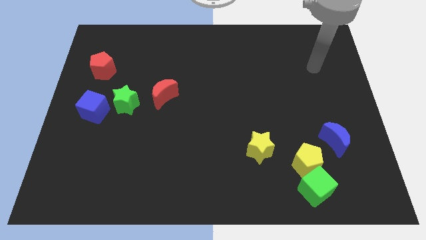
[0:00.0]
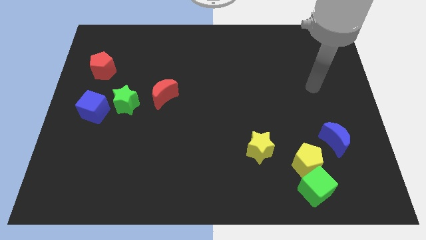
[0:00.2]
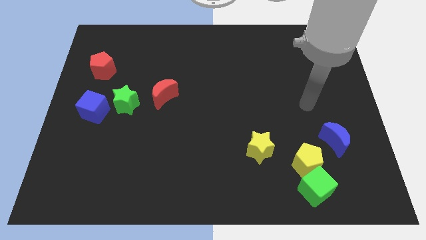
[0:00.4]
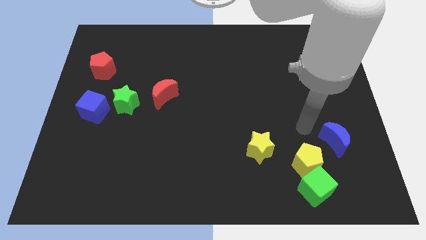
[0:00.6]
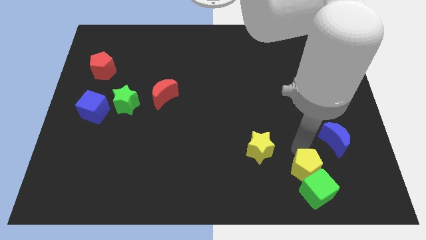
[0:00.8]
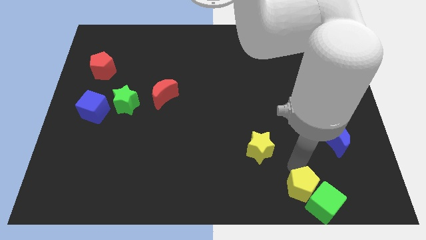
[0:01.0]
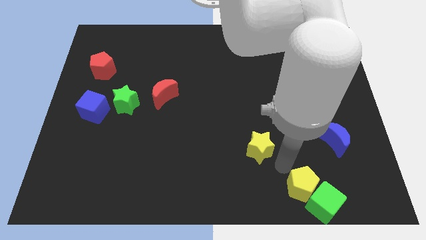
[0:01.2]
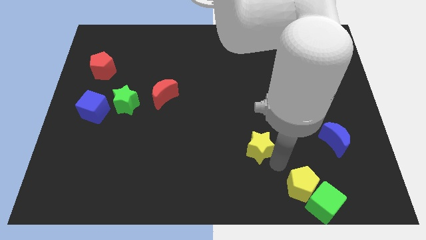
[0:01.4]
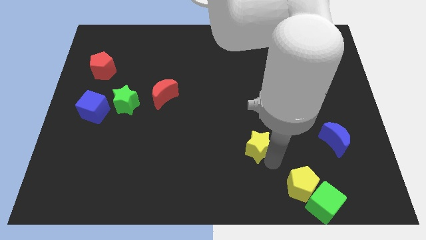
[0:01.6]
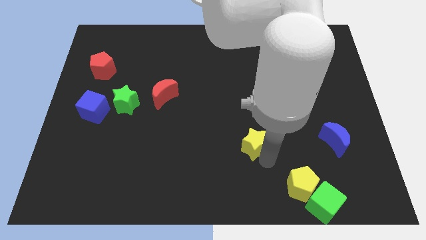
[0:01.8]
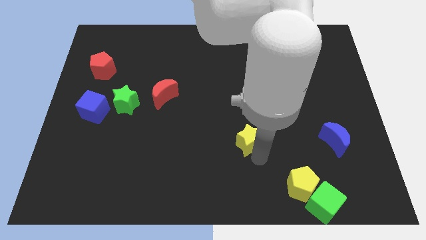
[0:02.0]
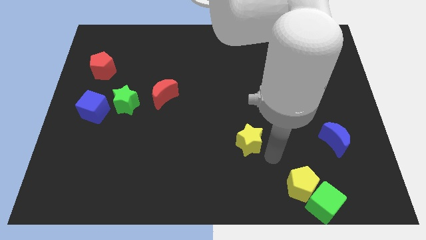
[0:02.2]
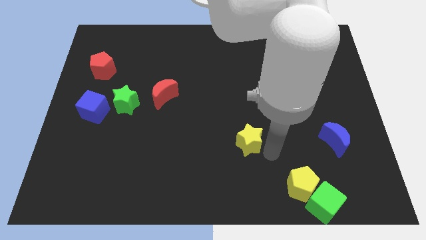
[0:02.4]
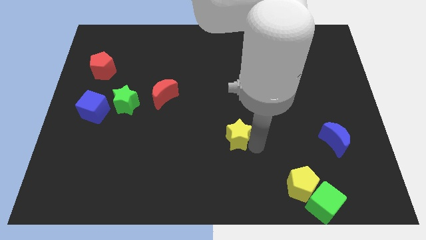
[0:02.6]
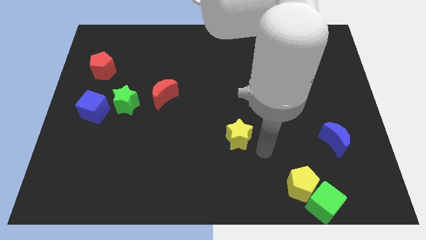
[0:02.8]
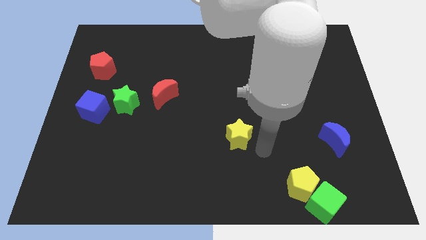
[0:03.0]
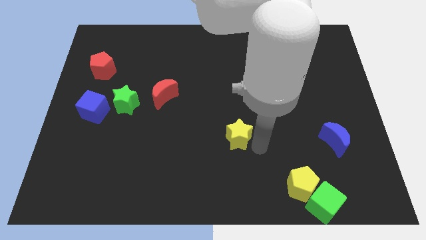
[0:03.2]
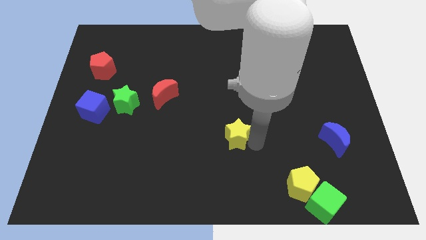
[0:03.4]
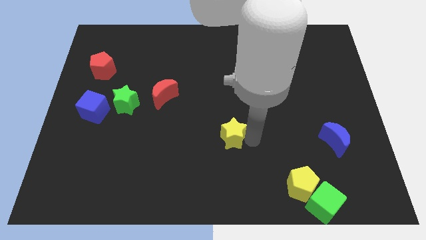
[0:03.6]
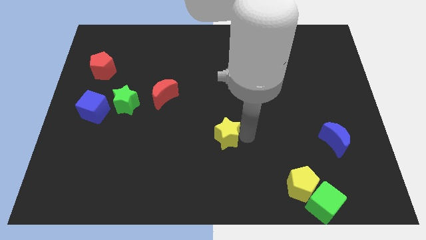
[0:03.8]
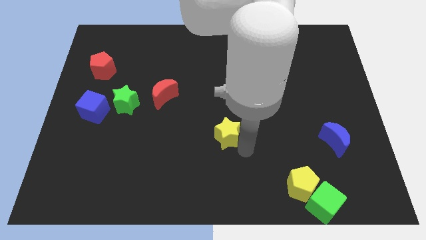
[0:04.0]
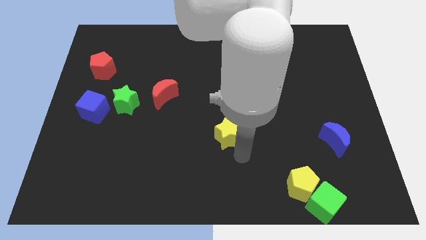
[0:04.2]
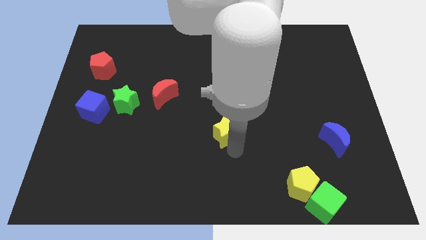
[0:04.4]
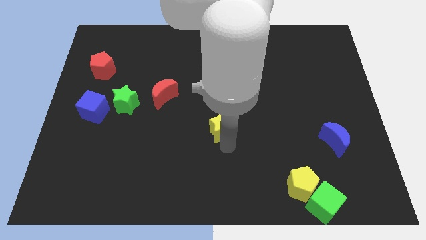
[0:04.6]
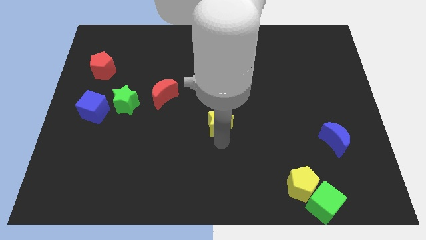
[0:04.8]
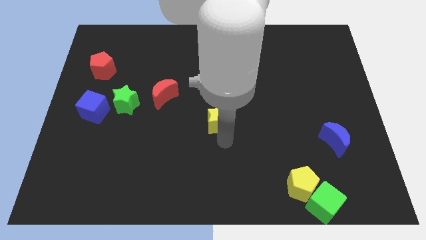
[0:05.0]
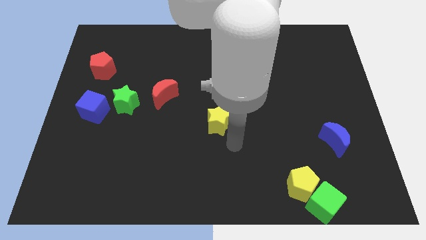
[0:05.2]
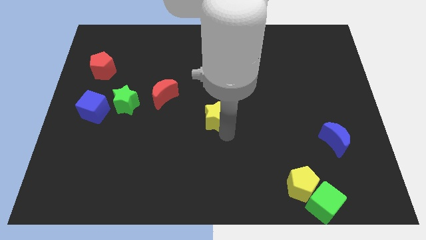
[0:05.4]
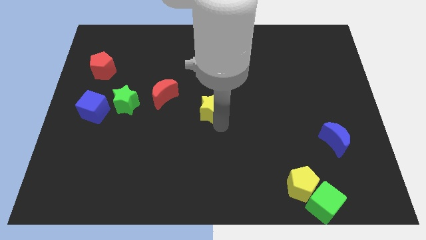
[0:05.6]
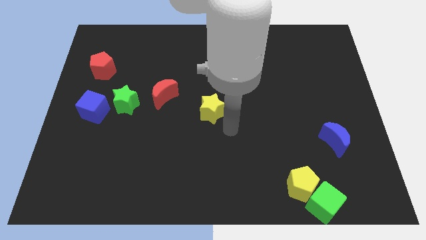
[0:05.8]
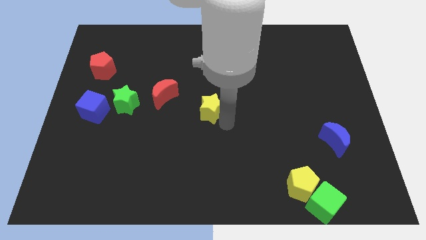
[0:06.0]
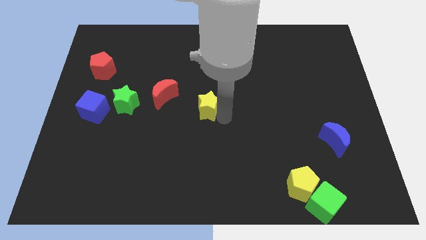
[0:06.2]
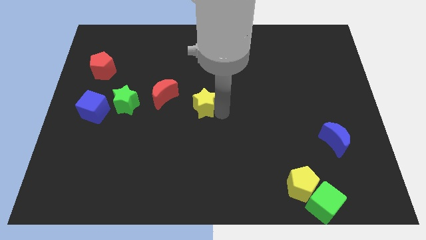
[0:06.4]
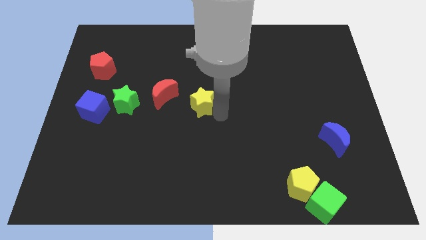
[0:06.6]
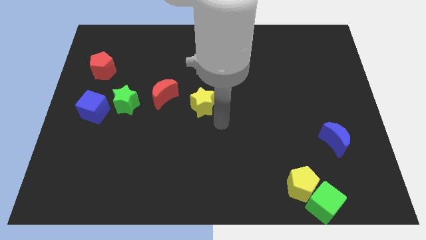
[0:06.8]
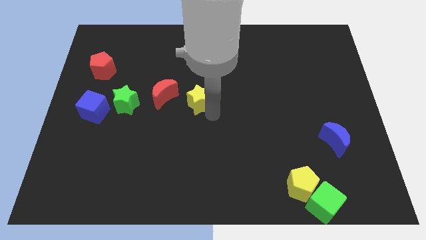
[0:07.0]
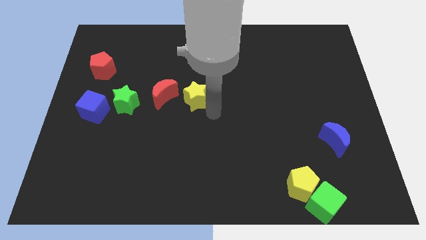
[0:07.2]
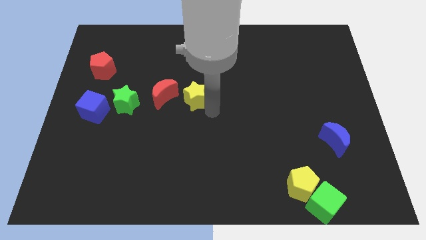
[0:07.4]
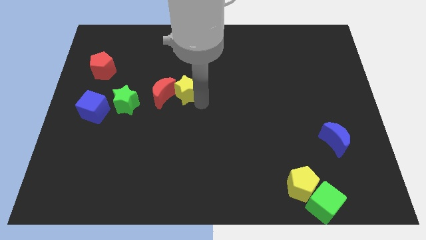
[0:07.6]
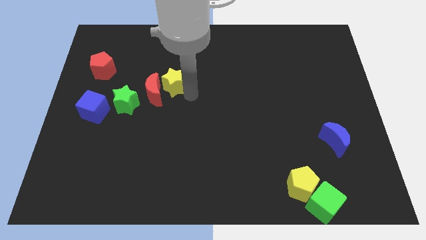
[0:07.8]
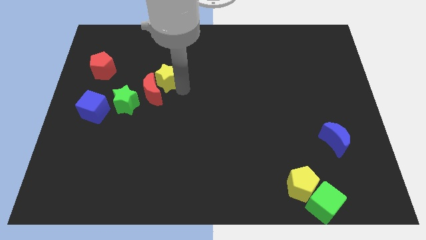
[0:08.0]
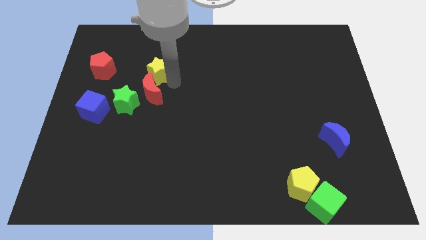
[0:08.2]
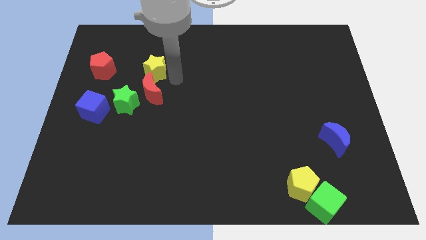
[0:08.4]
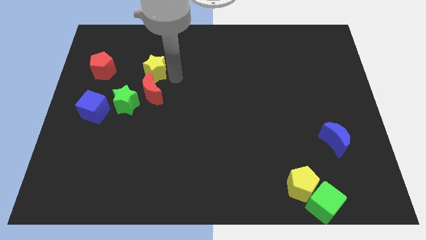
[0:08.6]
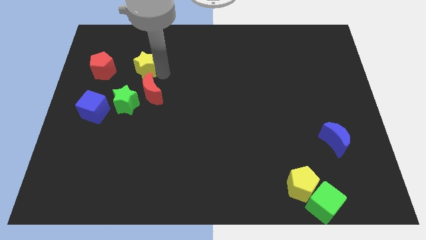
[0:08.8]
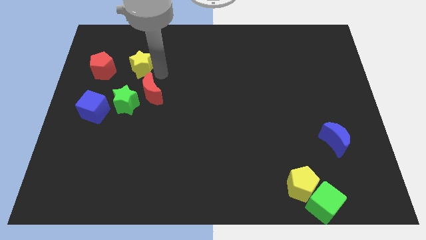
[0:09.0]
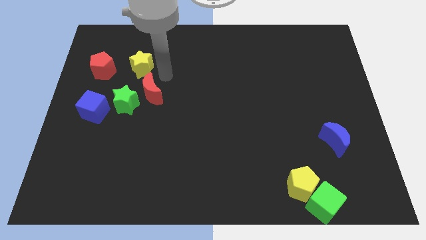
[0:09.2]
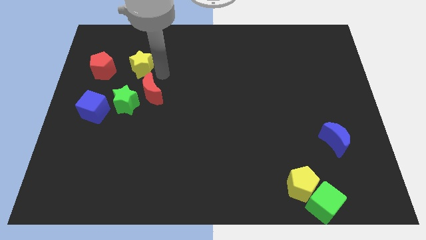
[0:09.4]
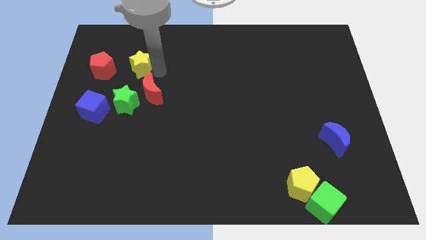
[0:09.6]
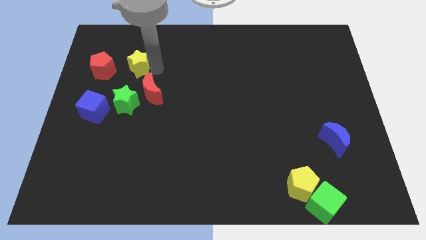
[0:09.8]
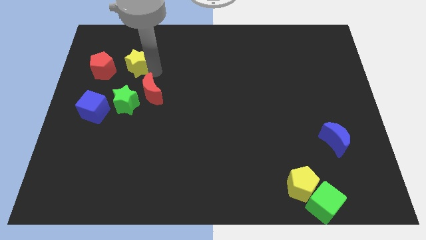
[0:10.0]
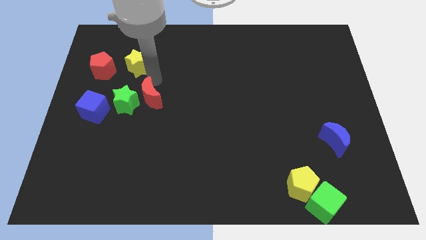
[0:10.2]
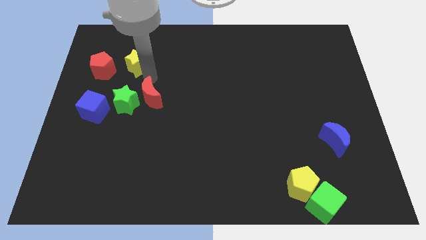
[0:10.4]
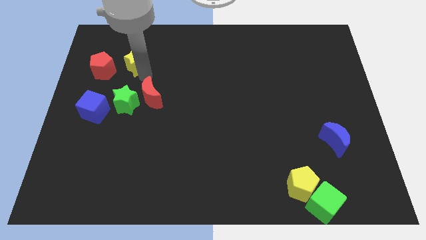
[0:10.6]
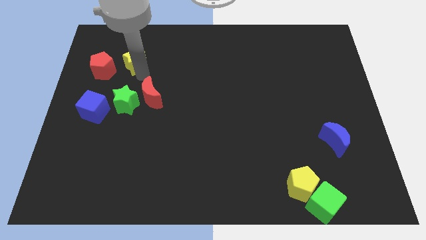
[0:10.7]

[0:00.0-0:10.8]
put the yellow star to the top right side of the red pentagon

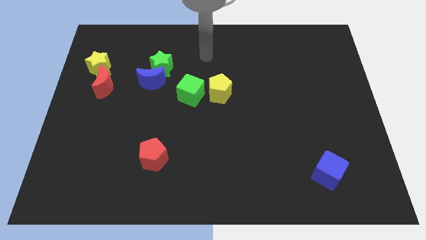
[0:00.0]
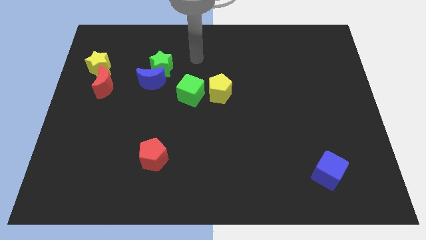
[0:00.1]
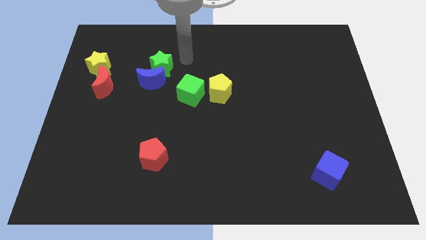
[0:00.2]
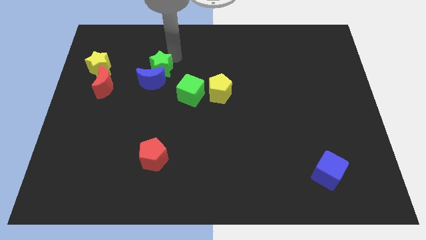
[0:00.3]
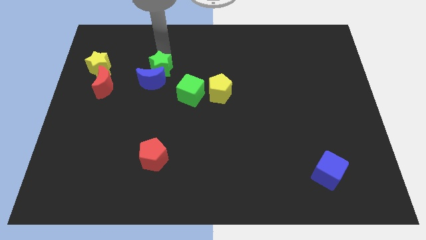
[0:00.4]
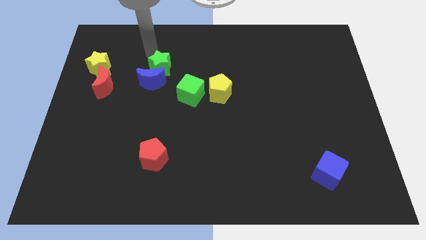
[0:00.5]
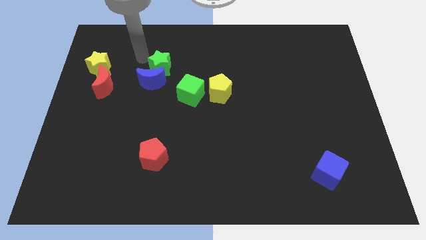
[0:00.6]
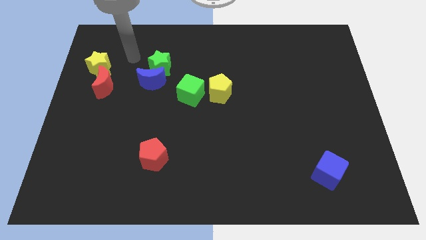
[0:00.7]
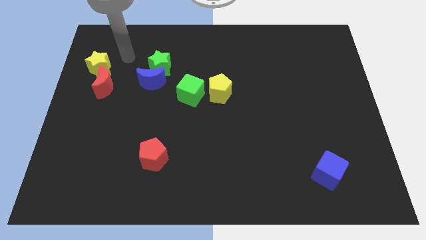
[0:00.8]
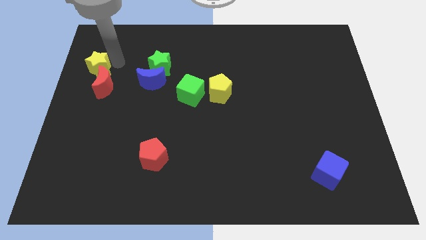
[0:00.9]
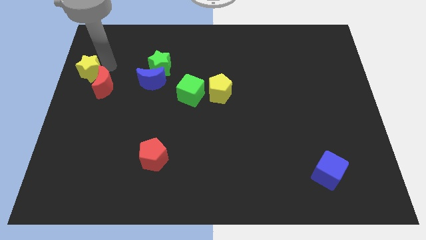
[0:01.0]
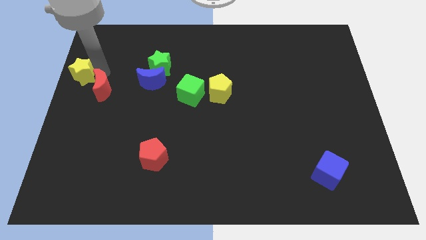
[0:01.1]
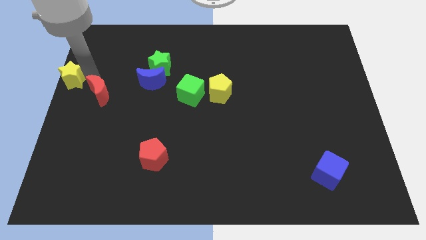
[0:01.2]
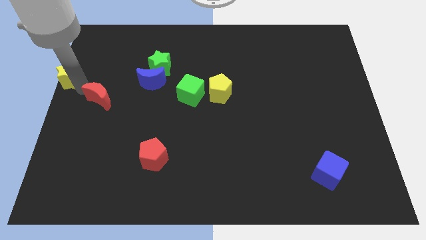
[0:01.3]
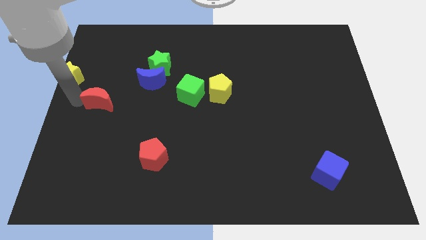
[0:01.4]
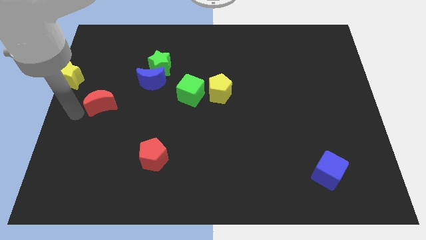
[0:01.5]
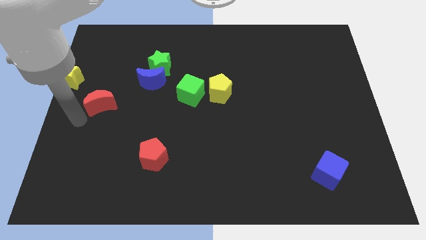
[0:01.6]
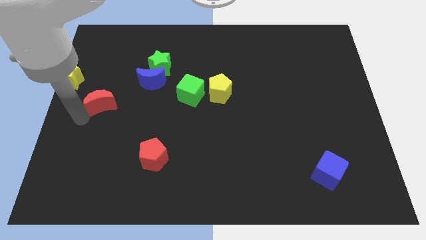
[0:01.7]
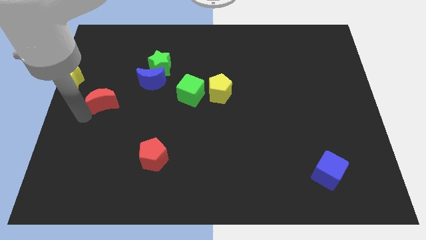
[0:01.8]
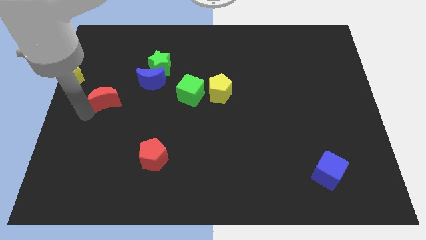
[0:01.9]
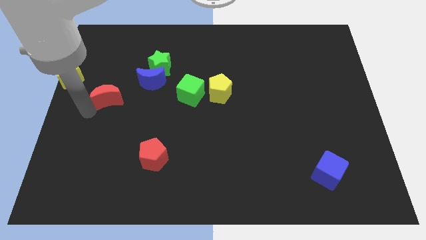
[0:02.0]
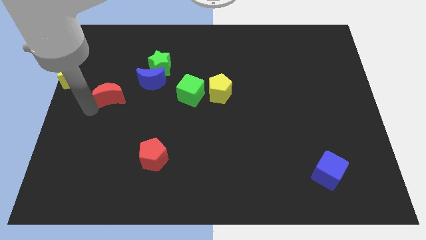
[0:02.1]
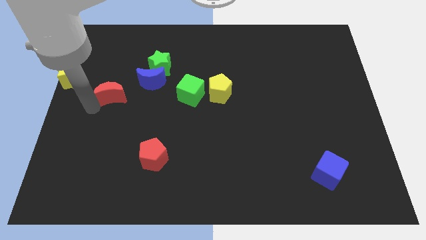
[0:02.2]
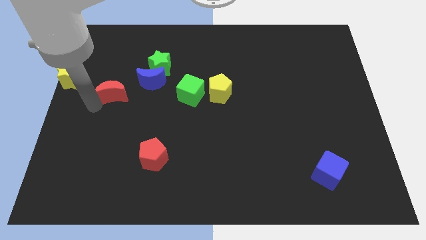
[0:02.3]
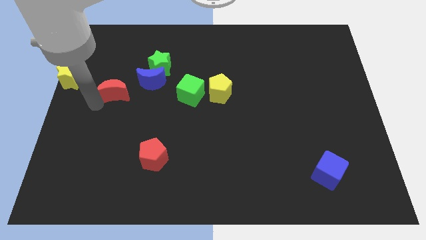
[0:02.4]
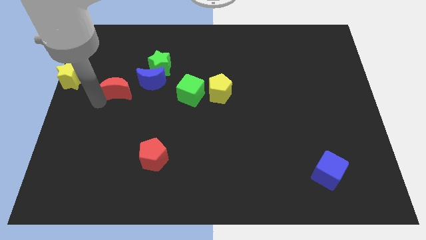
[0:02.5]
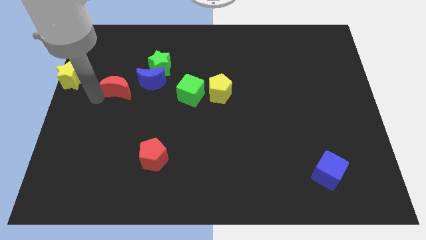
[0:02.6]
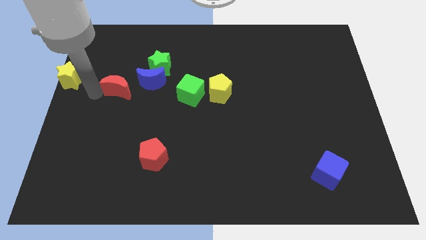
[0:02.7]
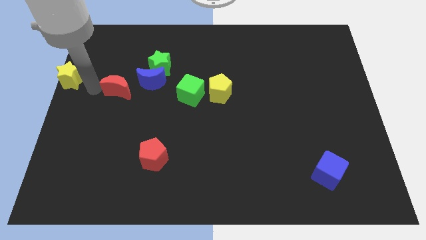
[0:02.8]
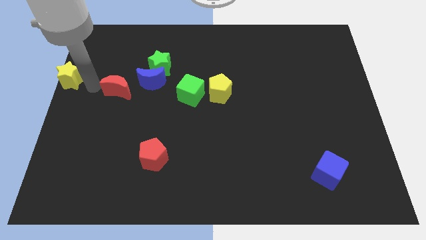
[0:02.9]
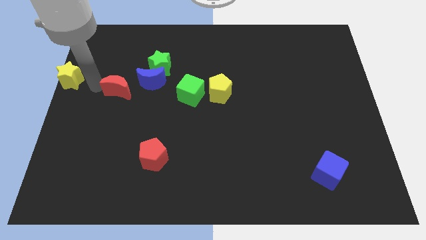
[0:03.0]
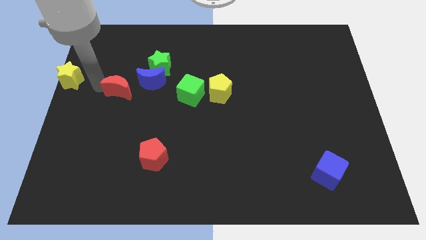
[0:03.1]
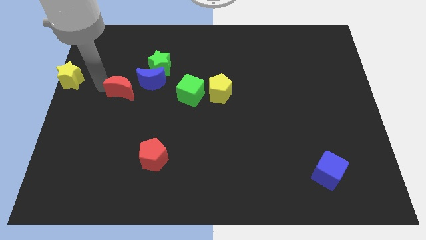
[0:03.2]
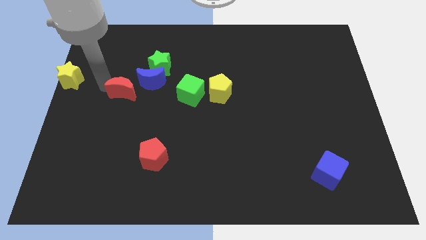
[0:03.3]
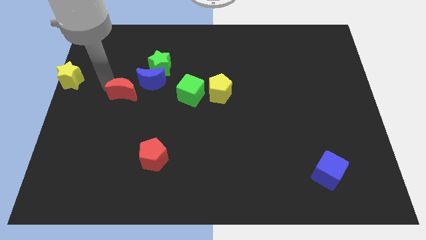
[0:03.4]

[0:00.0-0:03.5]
put the red moon to the left side of the green cube
